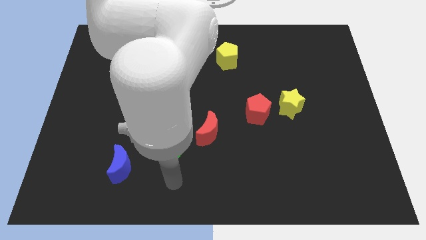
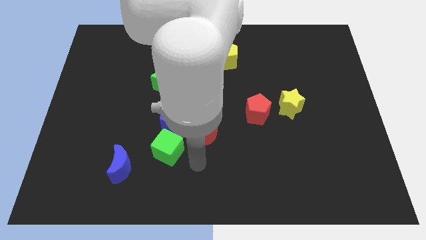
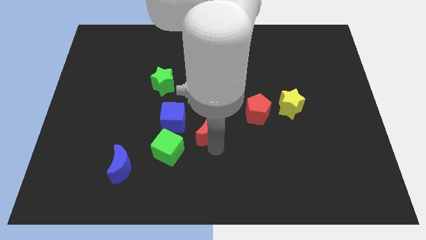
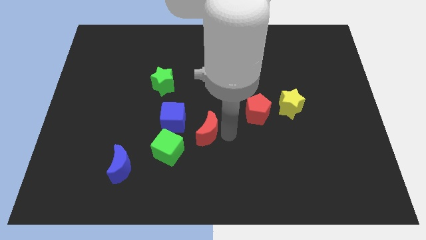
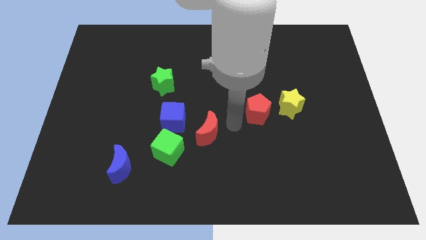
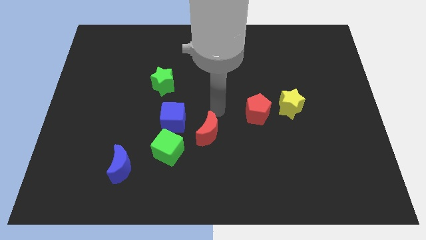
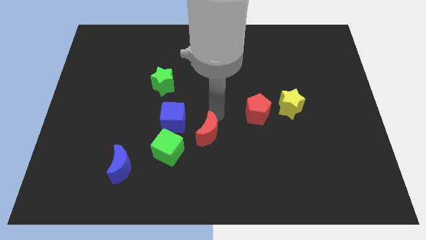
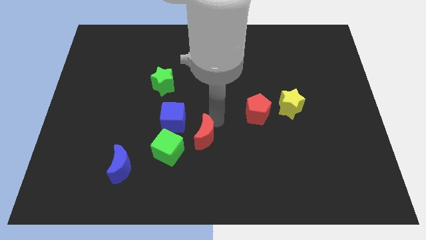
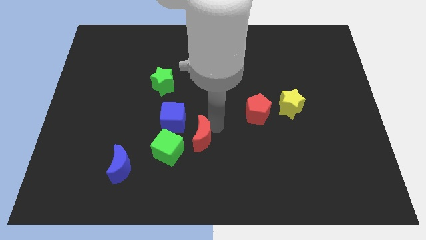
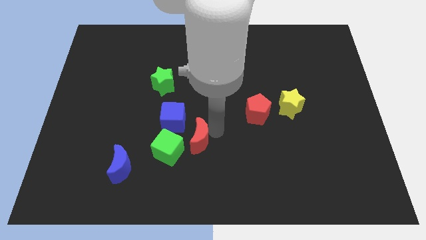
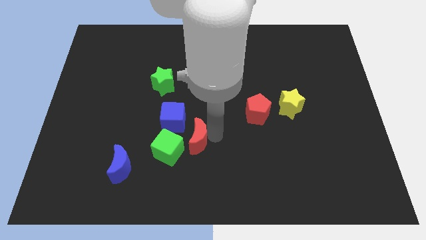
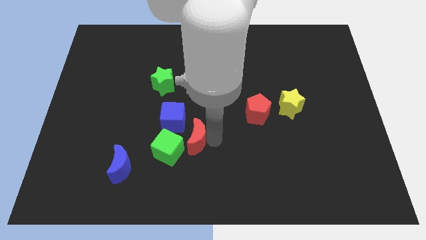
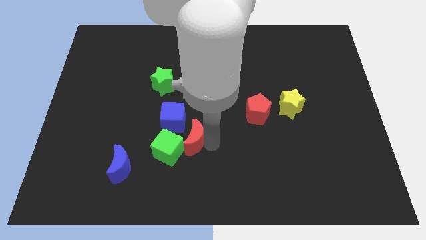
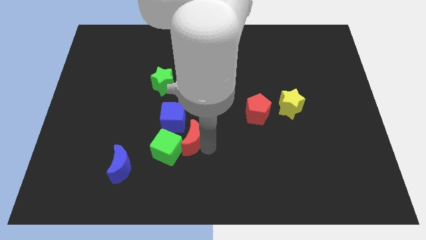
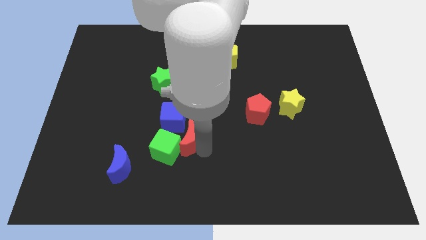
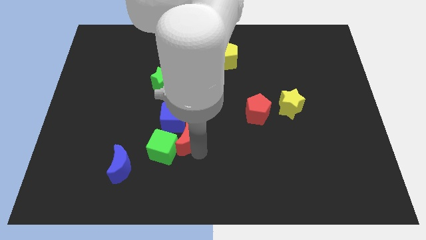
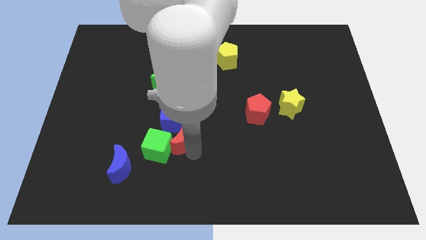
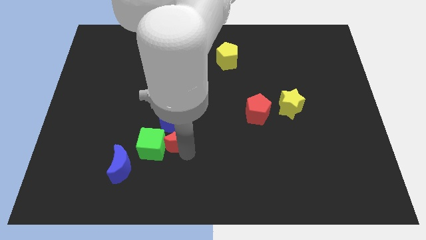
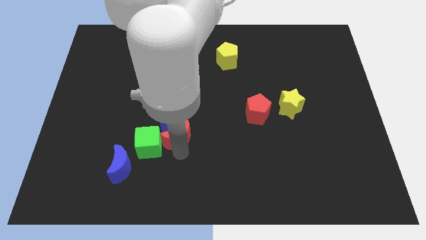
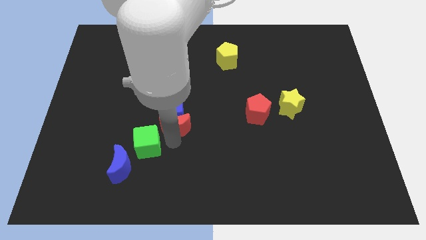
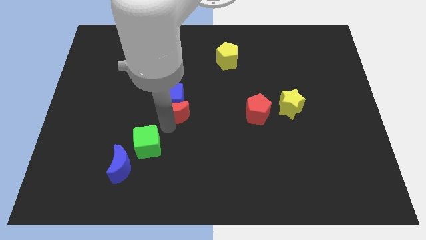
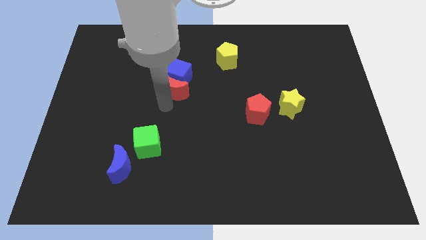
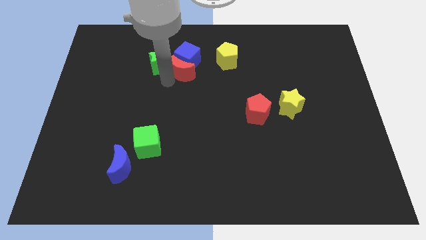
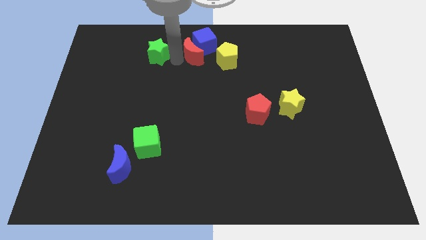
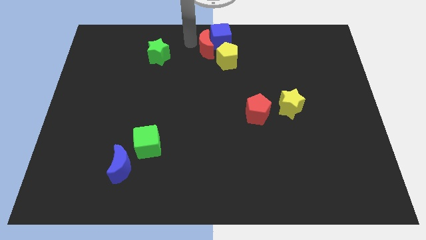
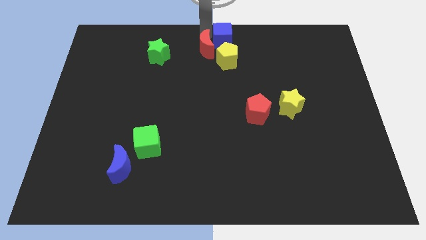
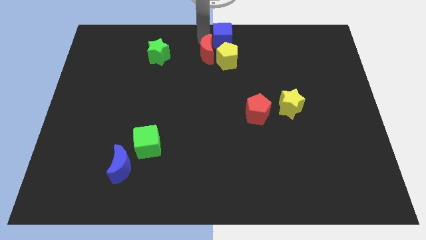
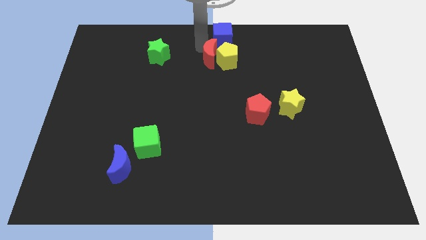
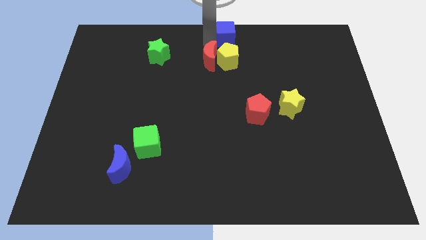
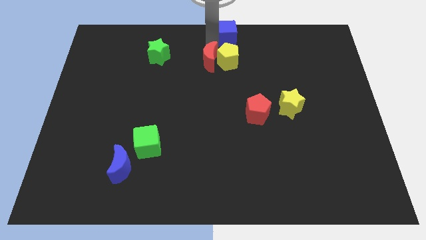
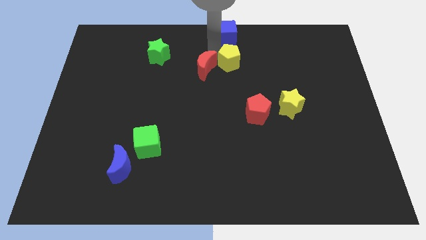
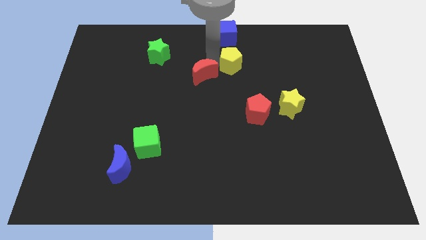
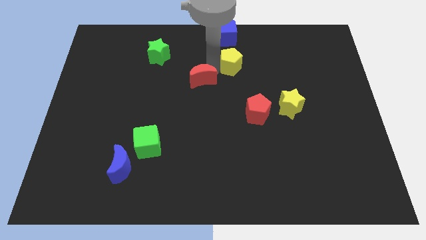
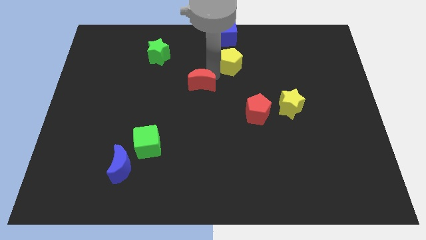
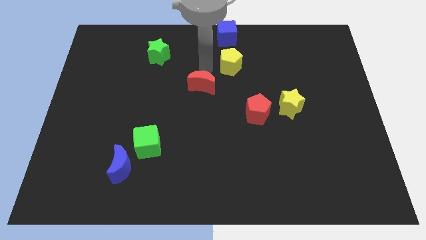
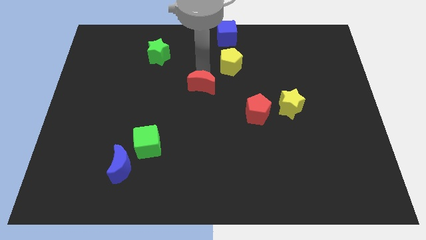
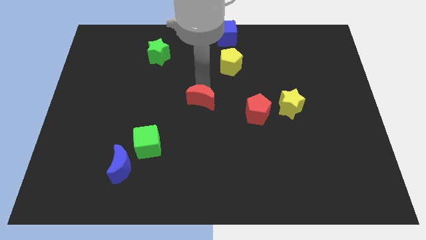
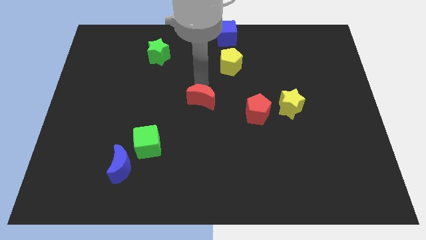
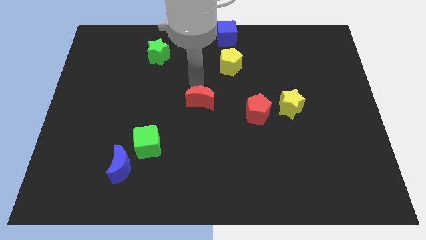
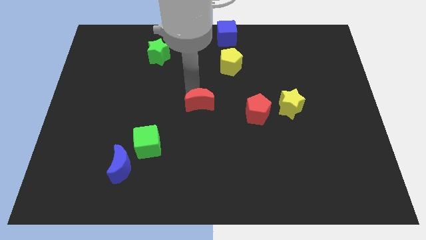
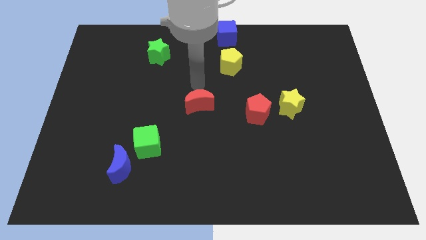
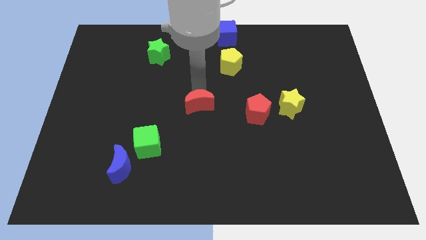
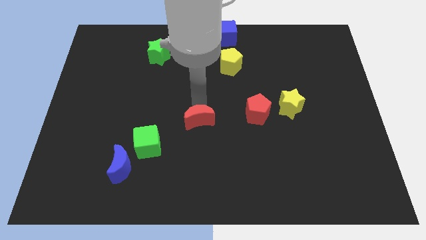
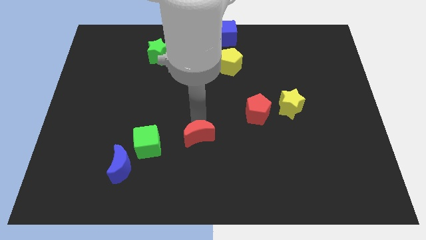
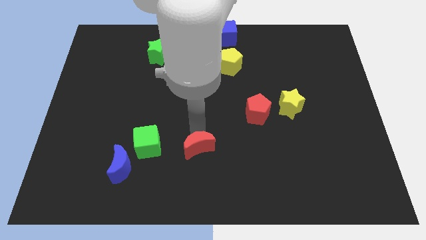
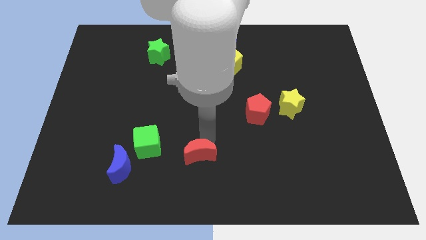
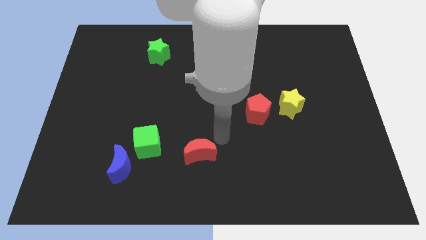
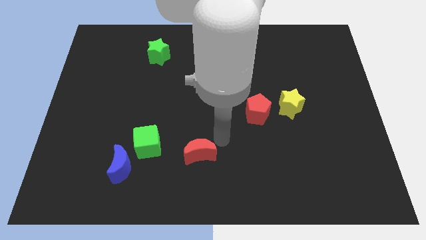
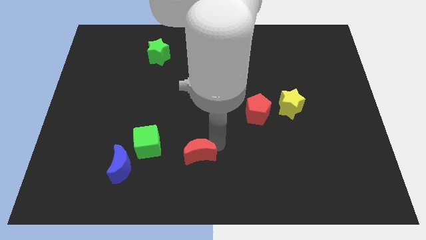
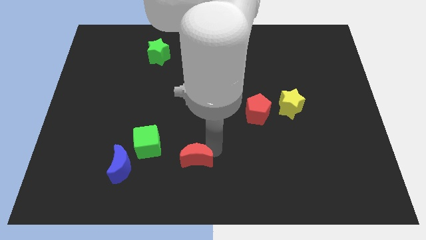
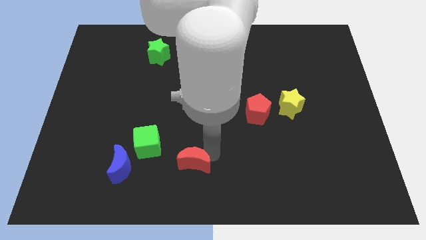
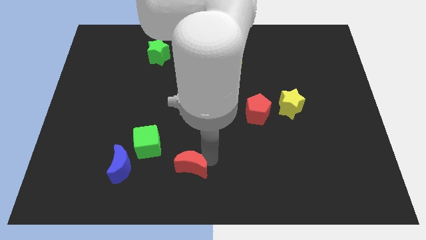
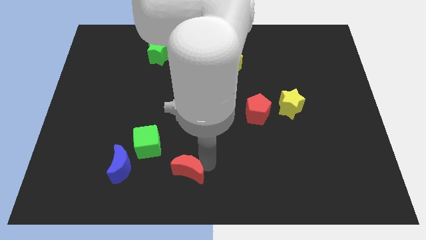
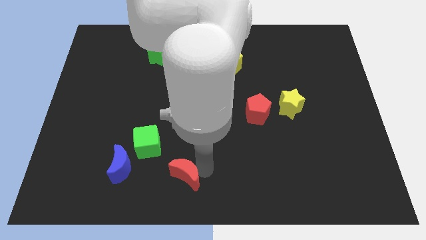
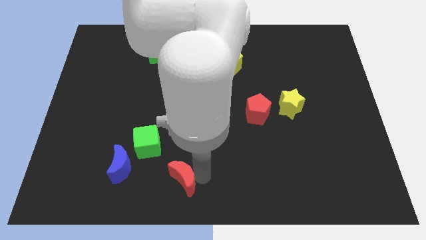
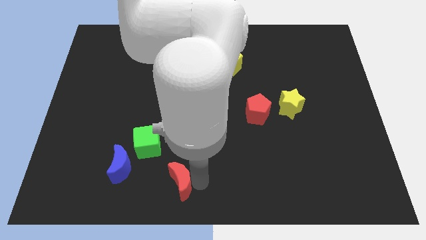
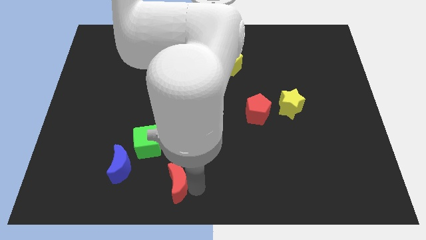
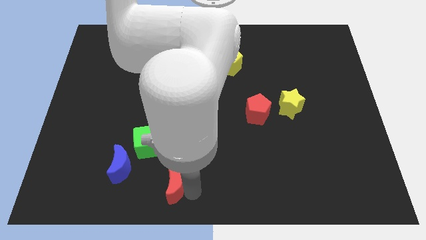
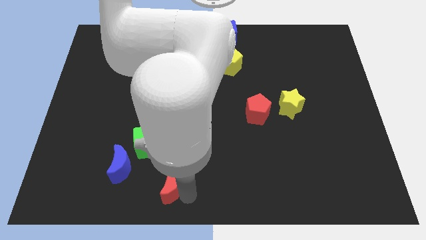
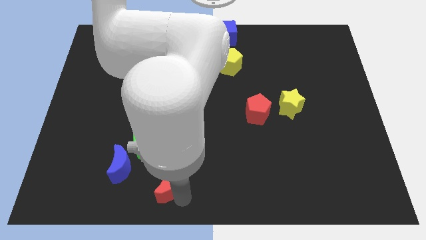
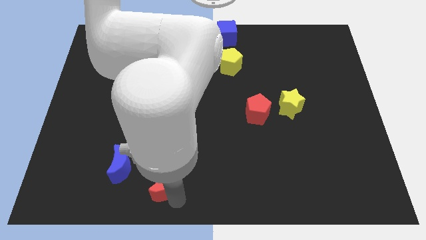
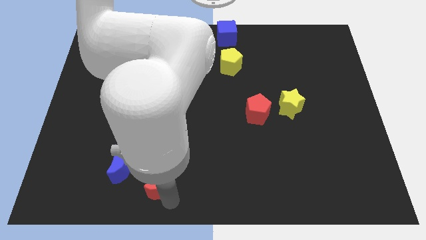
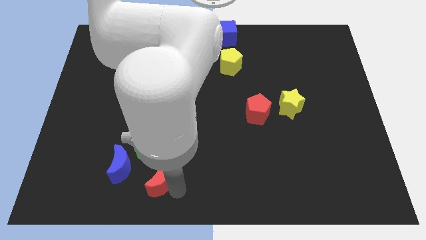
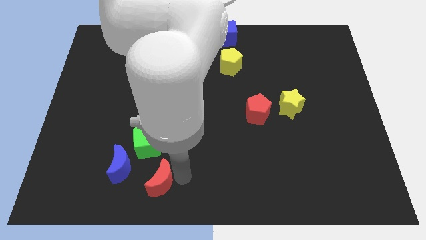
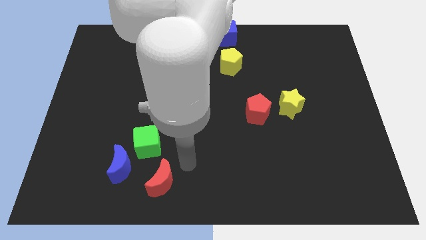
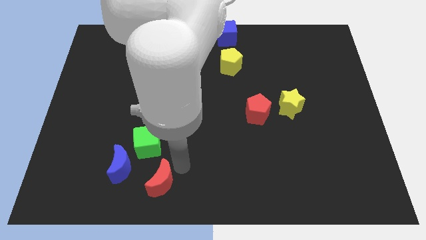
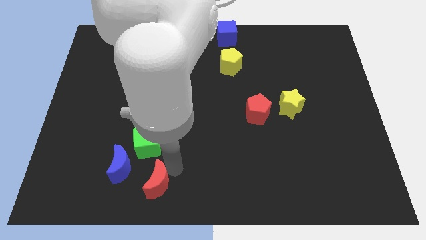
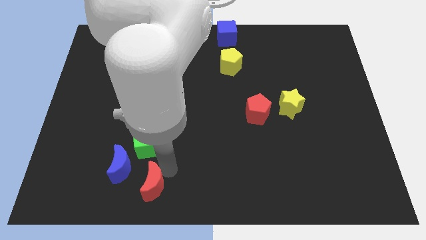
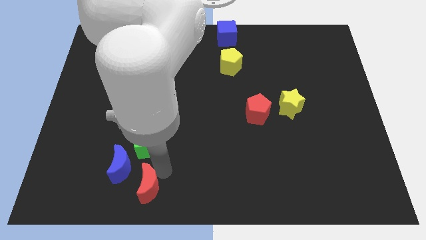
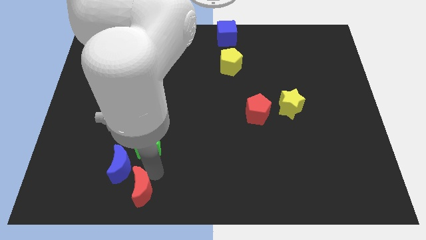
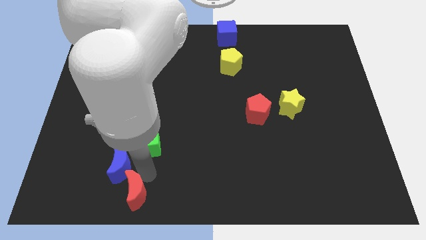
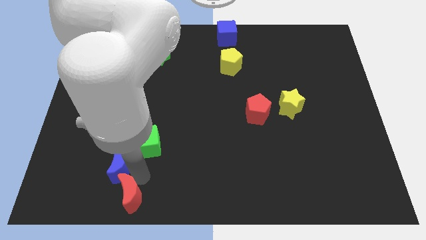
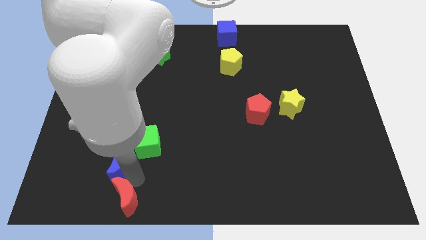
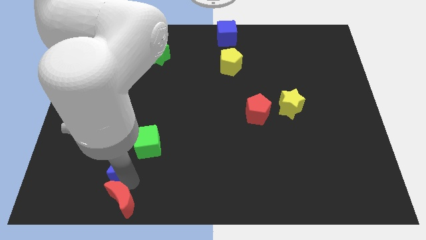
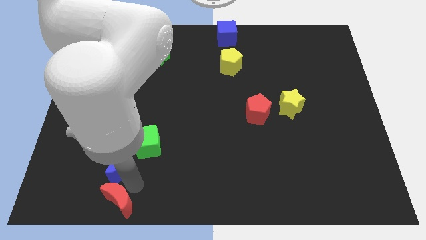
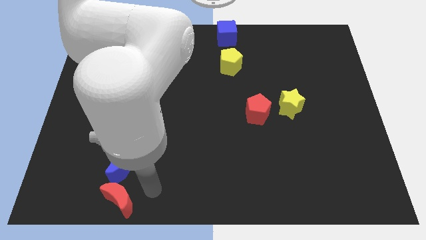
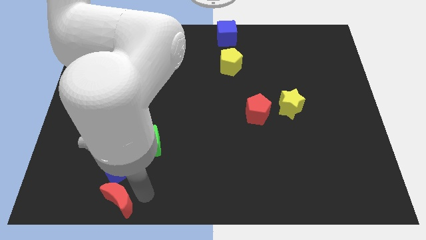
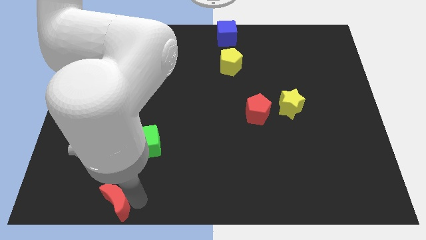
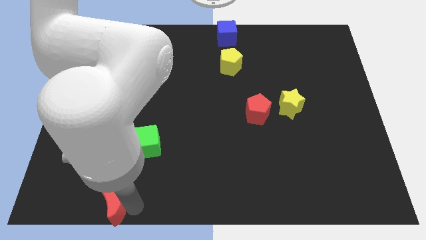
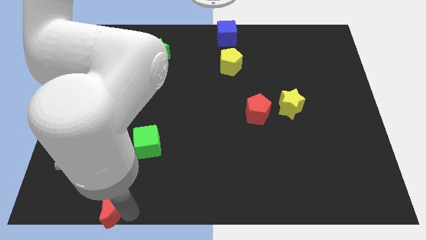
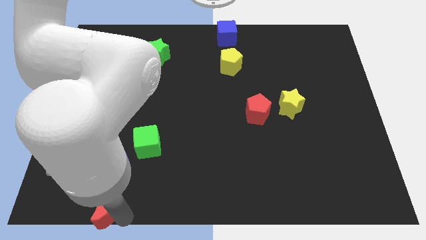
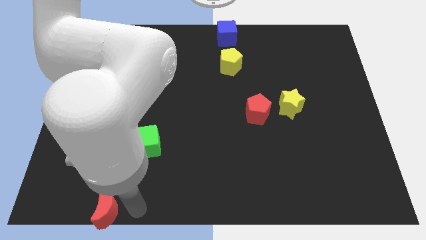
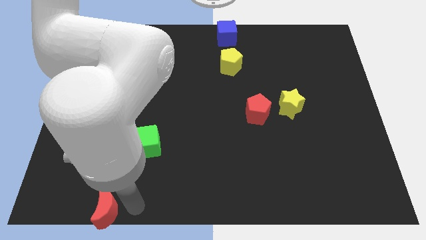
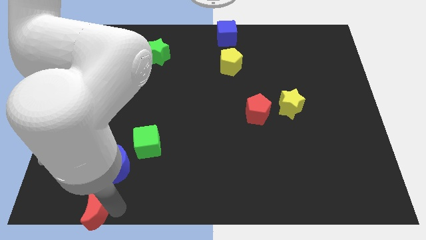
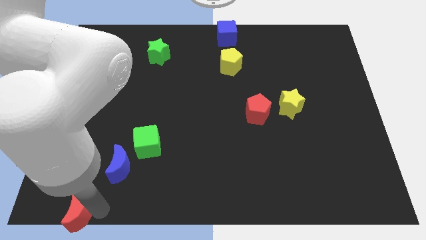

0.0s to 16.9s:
push the red moon to the lower left corner
